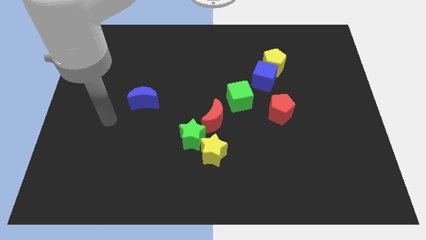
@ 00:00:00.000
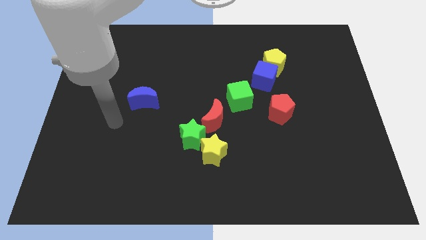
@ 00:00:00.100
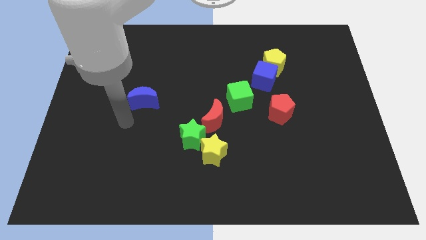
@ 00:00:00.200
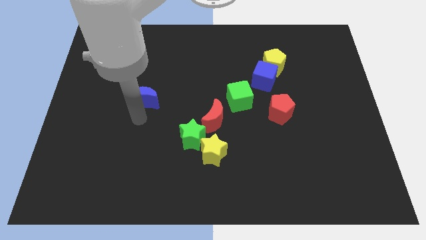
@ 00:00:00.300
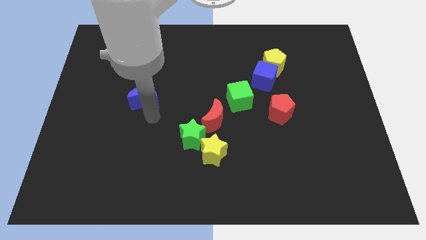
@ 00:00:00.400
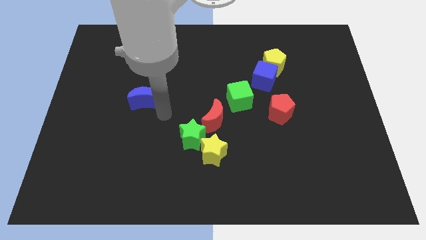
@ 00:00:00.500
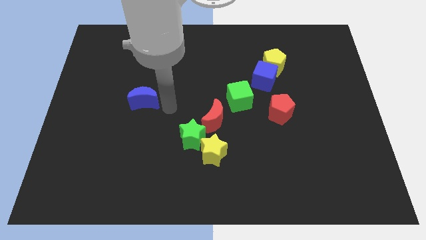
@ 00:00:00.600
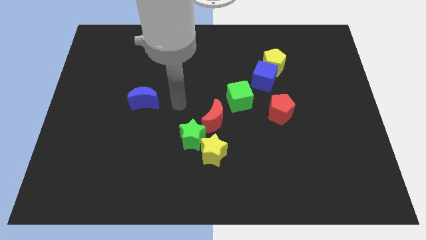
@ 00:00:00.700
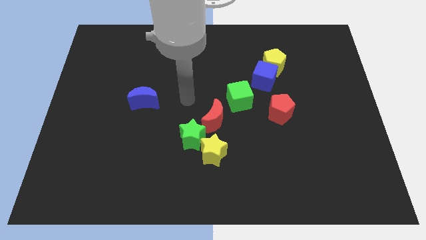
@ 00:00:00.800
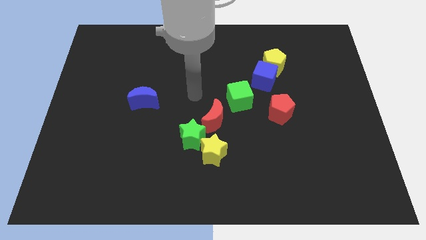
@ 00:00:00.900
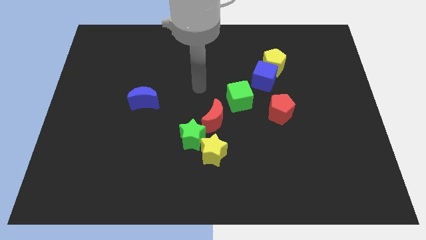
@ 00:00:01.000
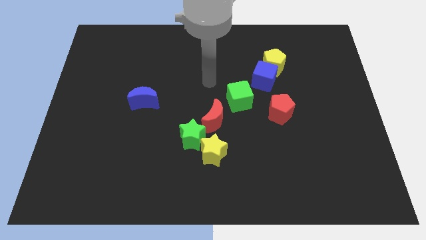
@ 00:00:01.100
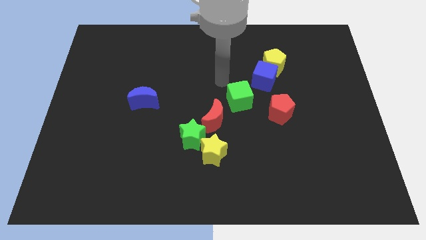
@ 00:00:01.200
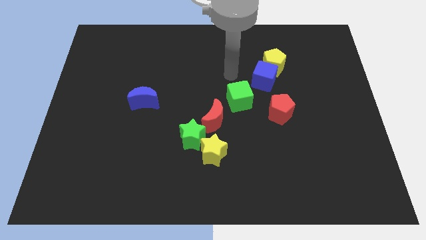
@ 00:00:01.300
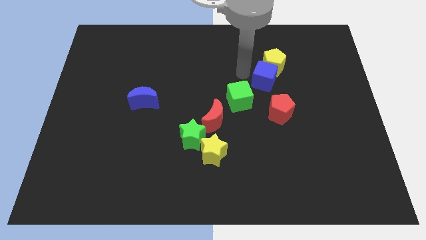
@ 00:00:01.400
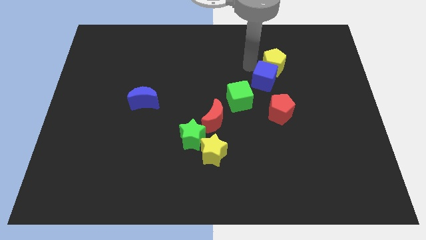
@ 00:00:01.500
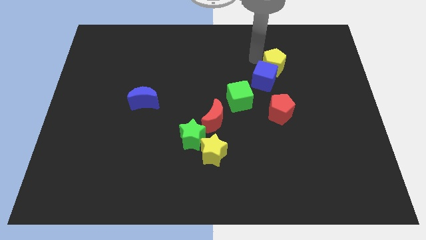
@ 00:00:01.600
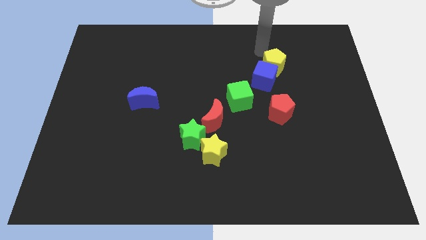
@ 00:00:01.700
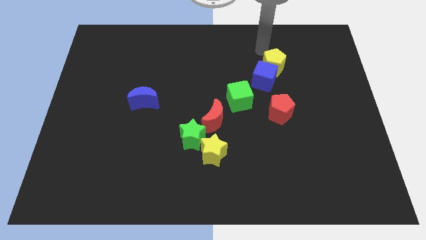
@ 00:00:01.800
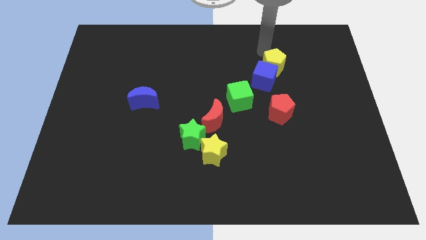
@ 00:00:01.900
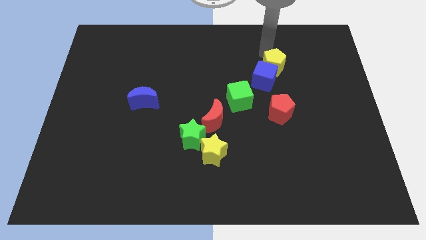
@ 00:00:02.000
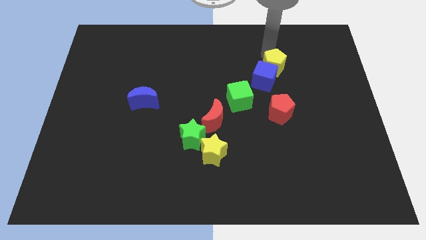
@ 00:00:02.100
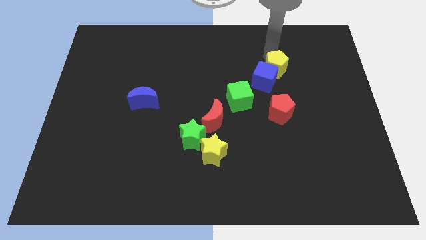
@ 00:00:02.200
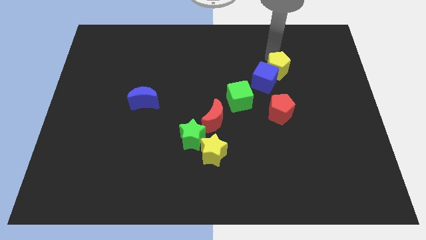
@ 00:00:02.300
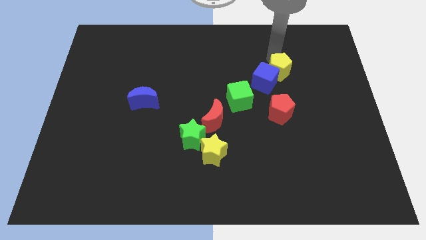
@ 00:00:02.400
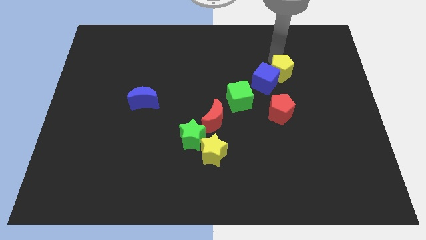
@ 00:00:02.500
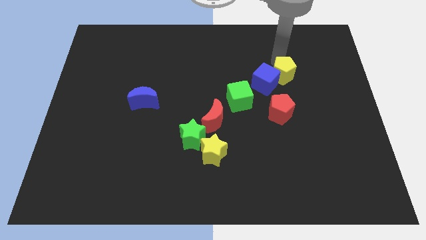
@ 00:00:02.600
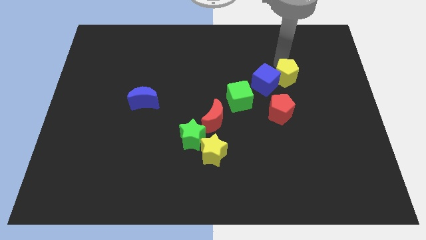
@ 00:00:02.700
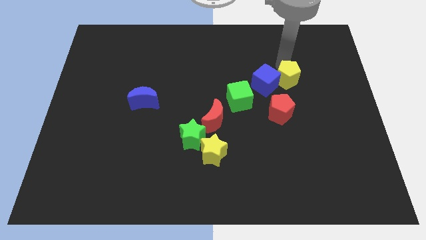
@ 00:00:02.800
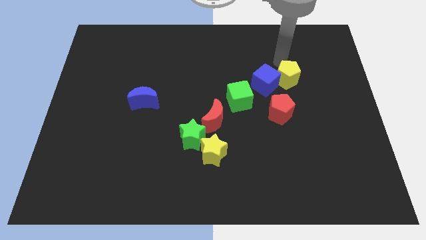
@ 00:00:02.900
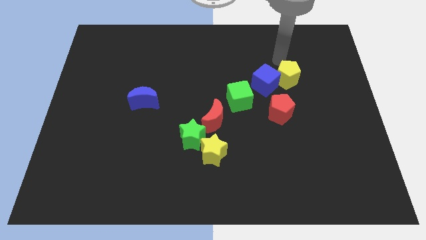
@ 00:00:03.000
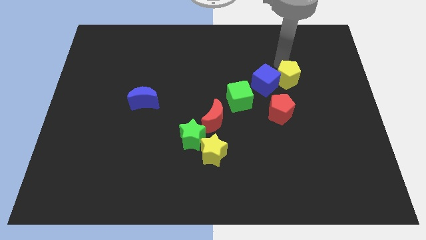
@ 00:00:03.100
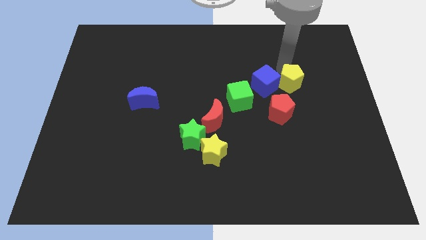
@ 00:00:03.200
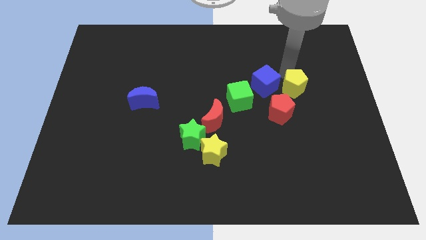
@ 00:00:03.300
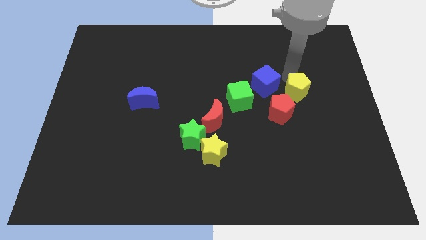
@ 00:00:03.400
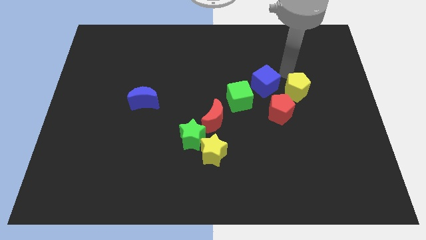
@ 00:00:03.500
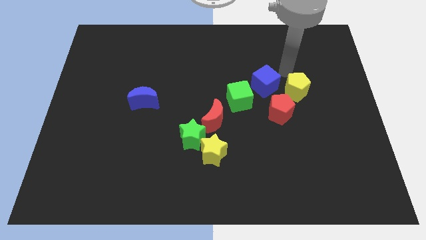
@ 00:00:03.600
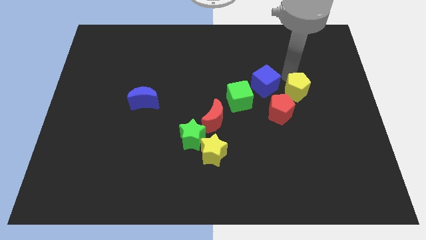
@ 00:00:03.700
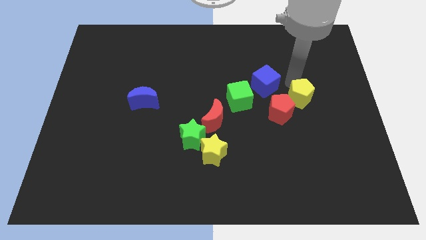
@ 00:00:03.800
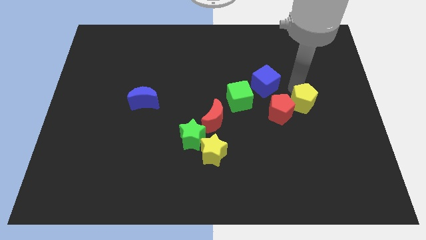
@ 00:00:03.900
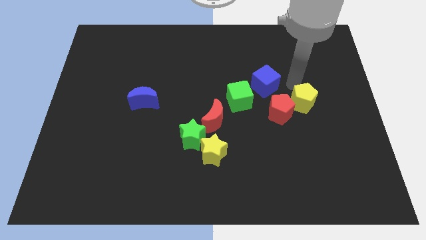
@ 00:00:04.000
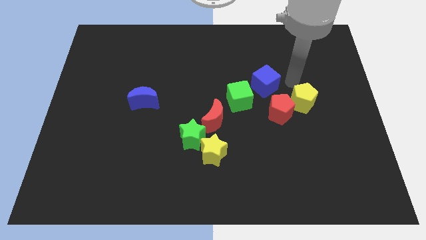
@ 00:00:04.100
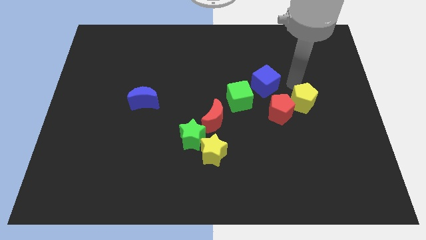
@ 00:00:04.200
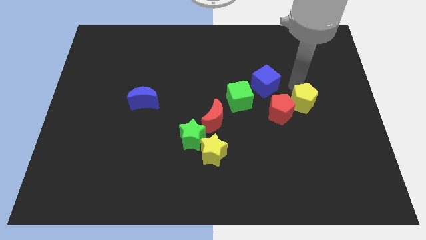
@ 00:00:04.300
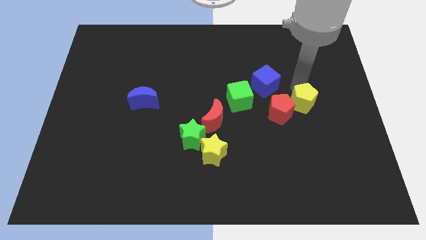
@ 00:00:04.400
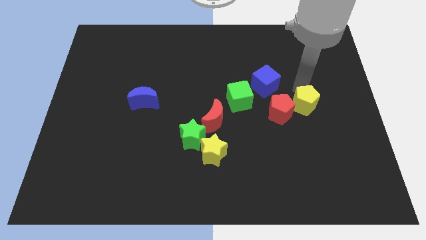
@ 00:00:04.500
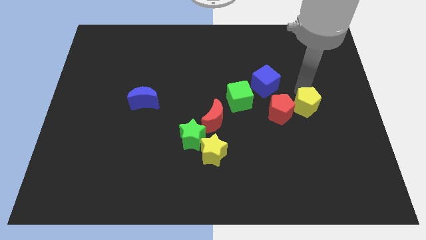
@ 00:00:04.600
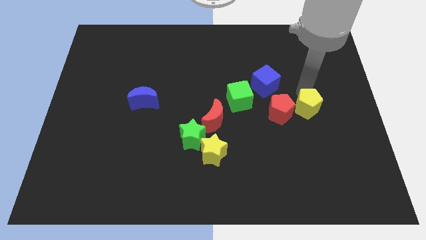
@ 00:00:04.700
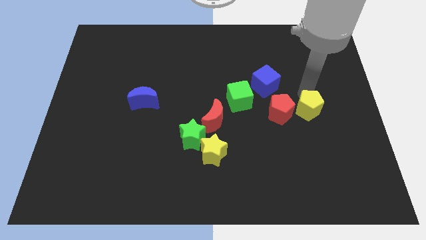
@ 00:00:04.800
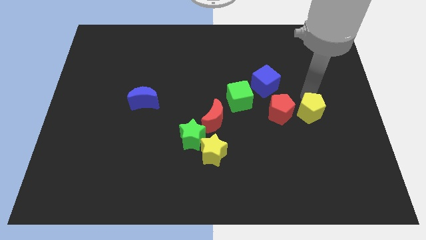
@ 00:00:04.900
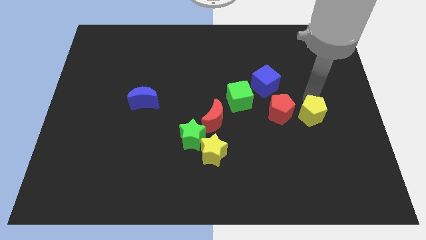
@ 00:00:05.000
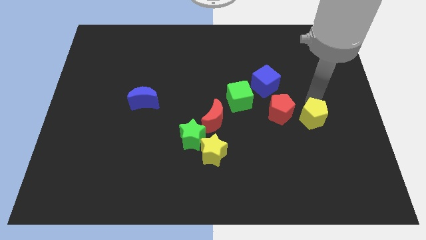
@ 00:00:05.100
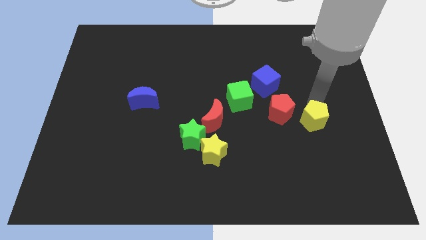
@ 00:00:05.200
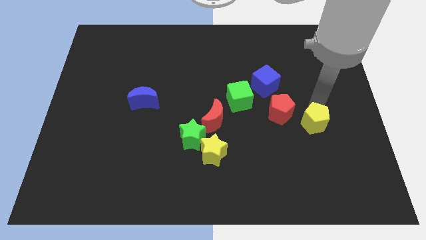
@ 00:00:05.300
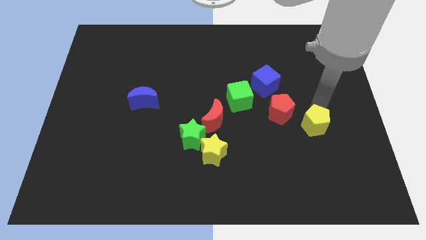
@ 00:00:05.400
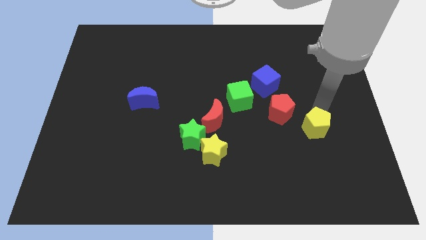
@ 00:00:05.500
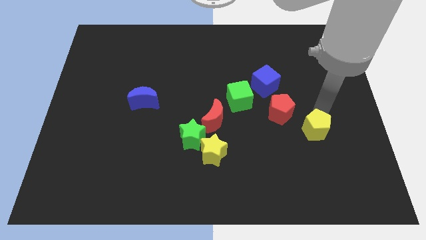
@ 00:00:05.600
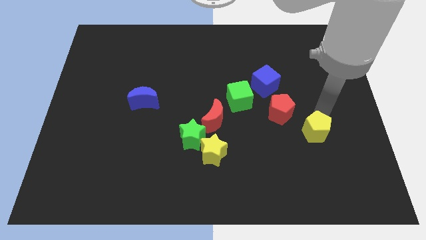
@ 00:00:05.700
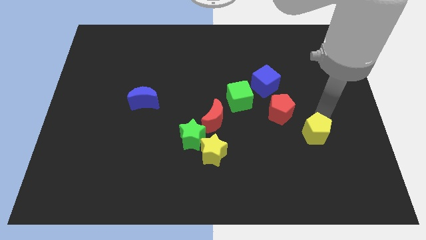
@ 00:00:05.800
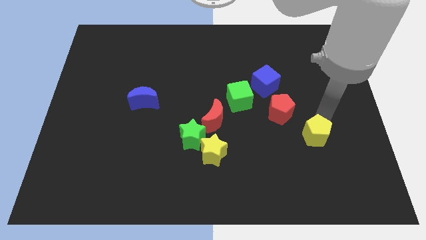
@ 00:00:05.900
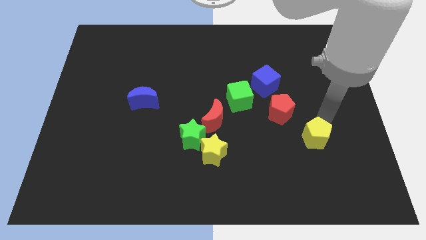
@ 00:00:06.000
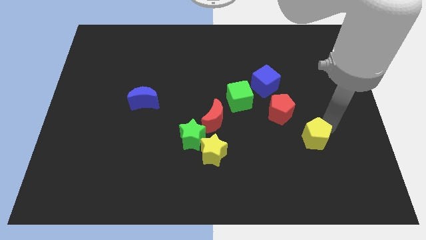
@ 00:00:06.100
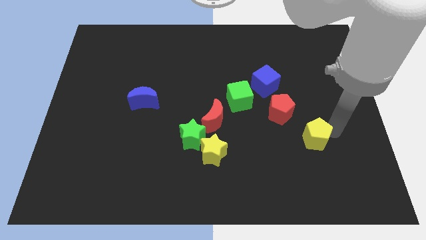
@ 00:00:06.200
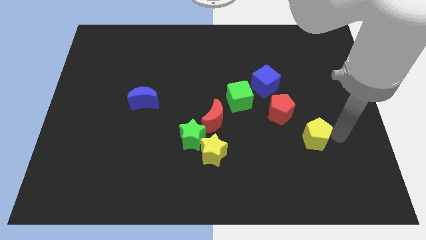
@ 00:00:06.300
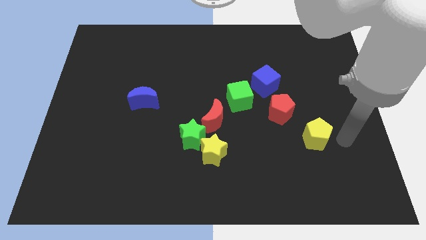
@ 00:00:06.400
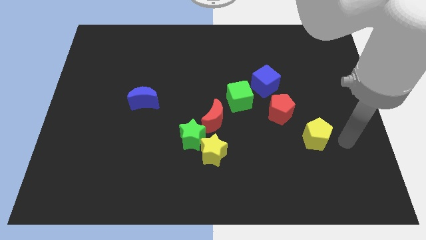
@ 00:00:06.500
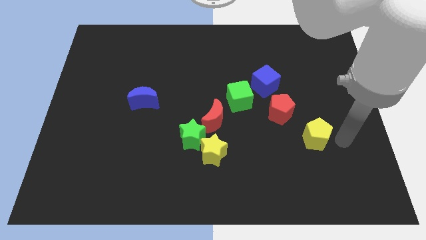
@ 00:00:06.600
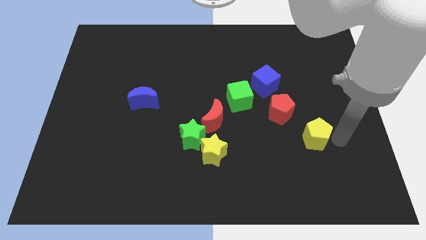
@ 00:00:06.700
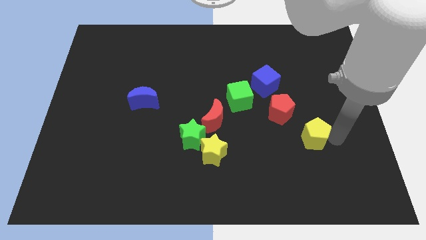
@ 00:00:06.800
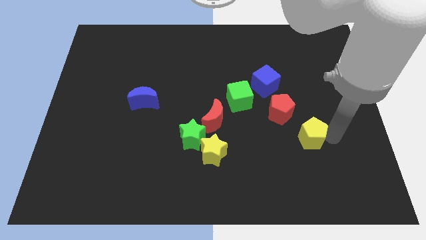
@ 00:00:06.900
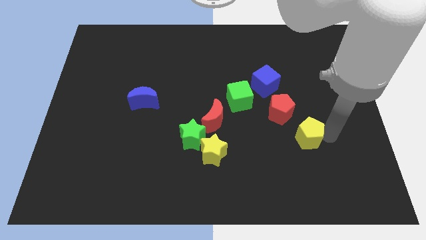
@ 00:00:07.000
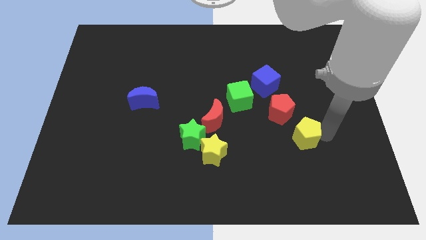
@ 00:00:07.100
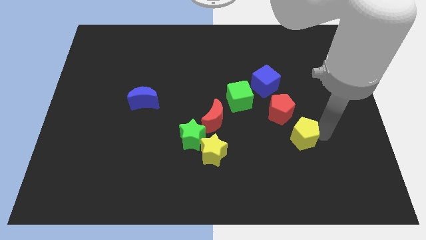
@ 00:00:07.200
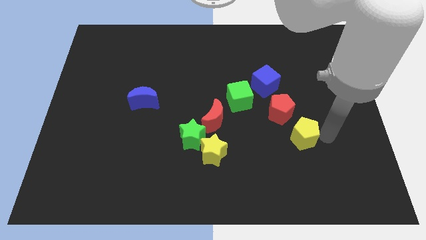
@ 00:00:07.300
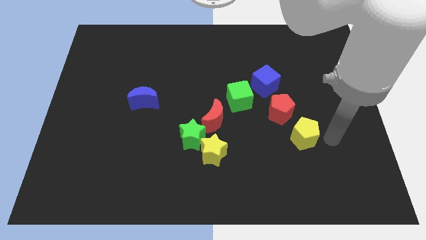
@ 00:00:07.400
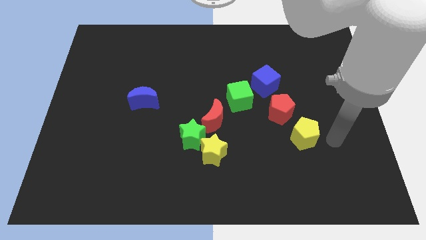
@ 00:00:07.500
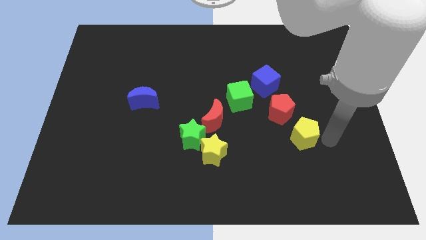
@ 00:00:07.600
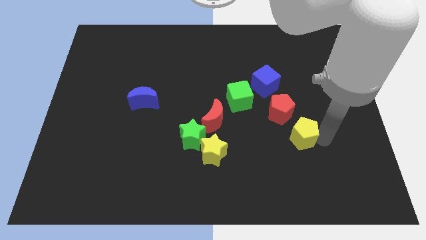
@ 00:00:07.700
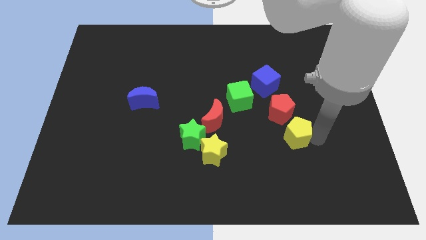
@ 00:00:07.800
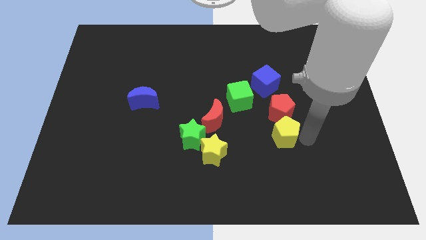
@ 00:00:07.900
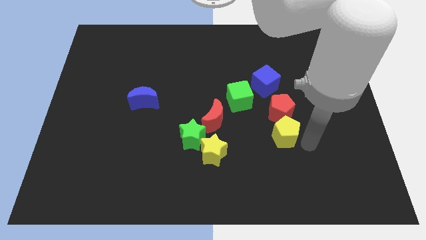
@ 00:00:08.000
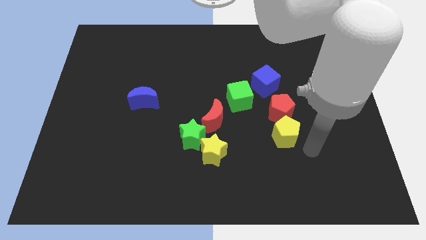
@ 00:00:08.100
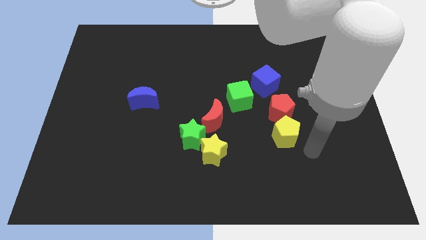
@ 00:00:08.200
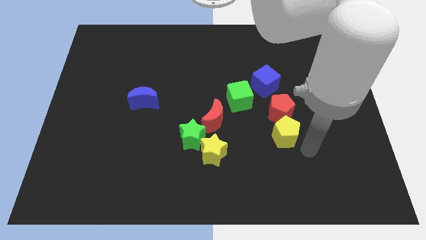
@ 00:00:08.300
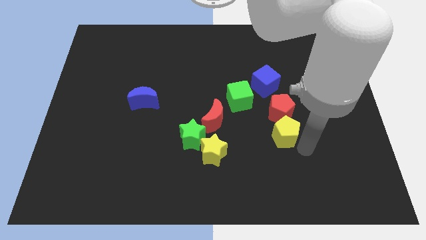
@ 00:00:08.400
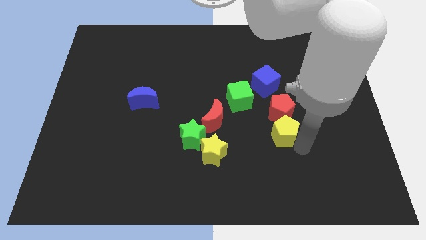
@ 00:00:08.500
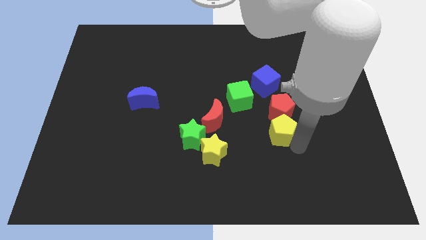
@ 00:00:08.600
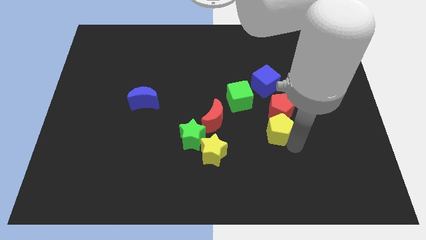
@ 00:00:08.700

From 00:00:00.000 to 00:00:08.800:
slide the yellow pentagon just right of the red moon
